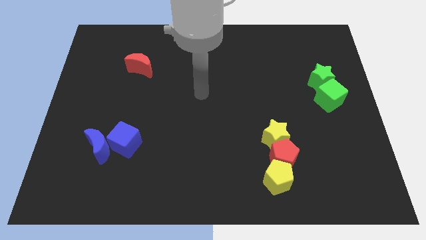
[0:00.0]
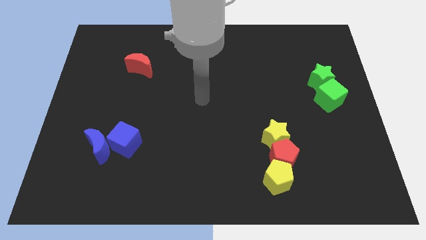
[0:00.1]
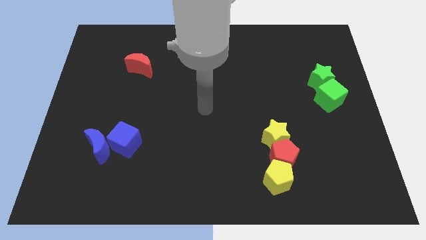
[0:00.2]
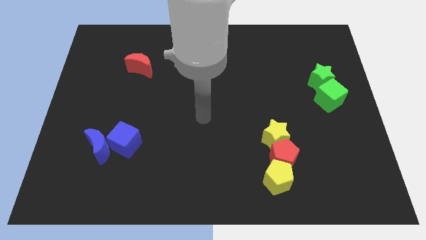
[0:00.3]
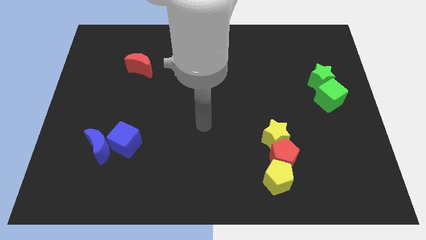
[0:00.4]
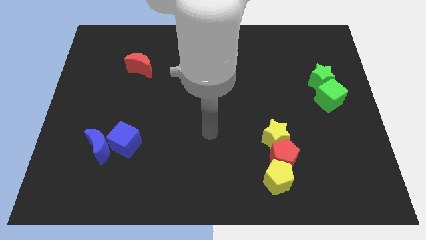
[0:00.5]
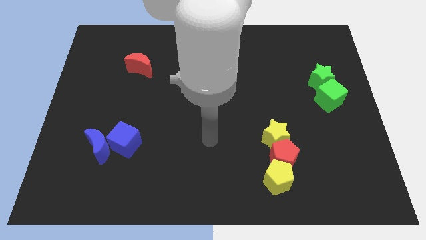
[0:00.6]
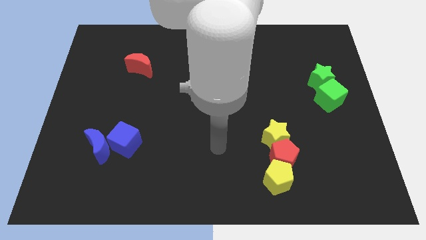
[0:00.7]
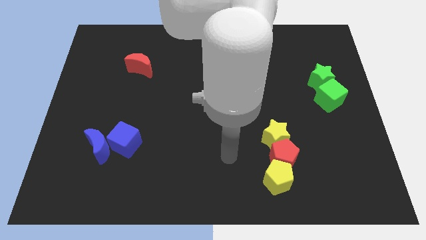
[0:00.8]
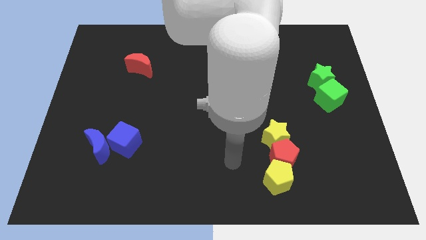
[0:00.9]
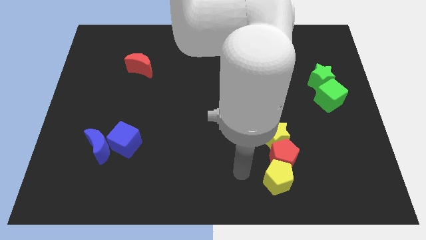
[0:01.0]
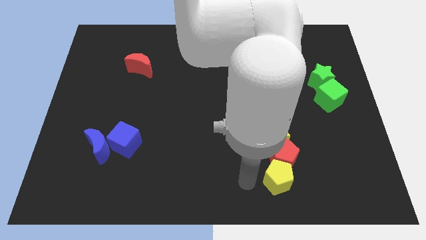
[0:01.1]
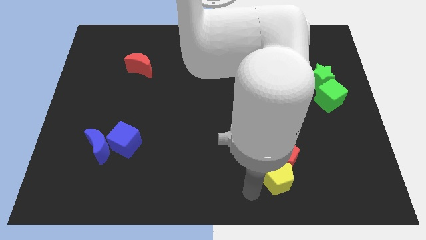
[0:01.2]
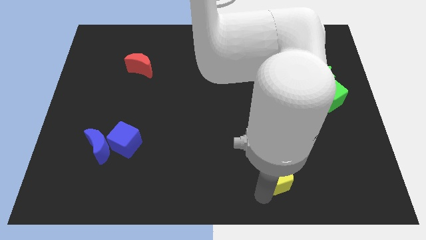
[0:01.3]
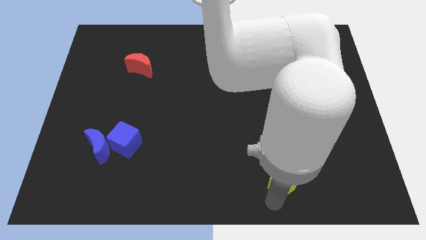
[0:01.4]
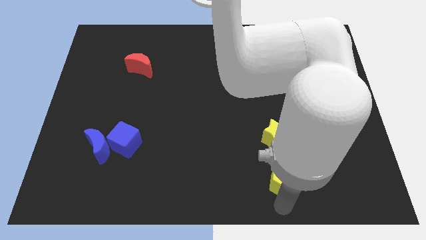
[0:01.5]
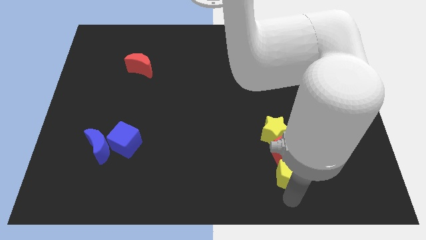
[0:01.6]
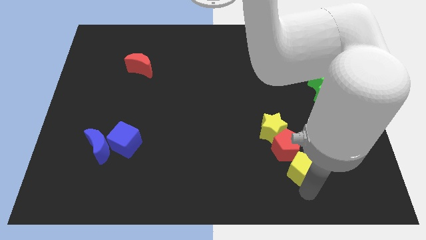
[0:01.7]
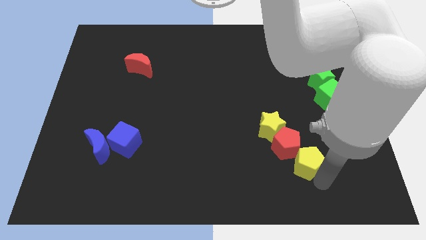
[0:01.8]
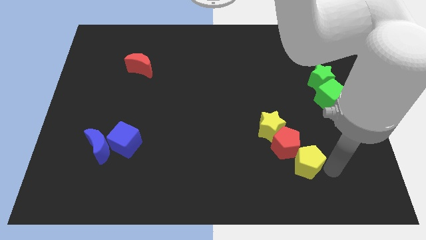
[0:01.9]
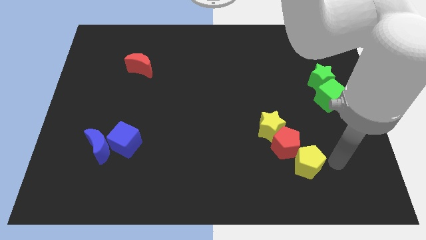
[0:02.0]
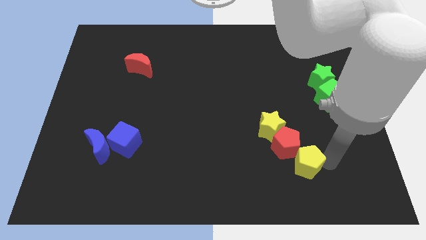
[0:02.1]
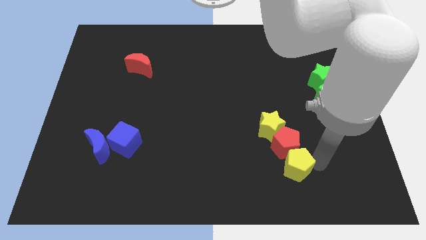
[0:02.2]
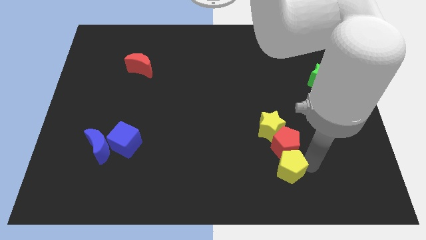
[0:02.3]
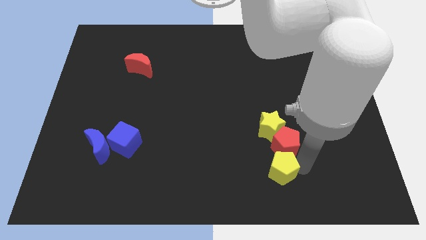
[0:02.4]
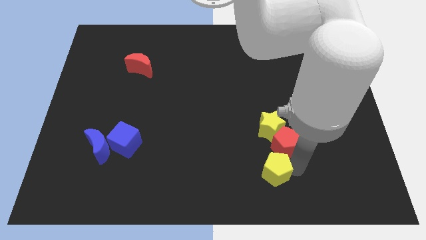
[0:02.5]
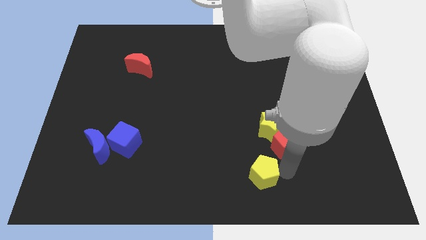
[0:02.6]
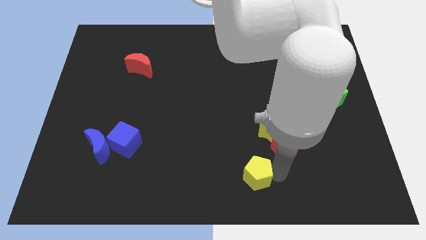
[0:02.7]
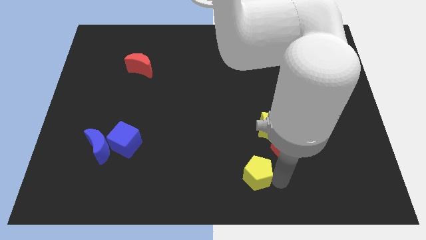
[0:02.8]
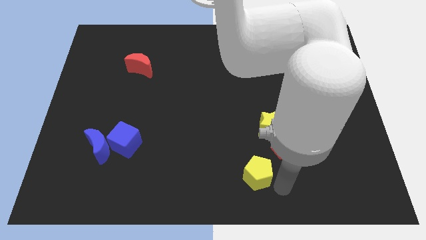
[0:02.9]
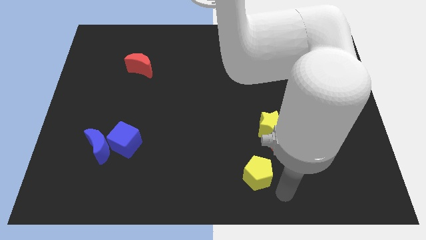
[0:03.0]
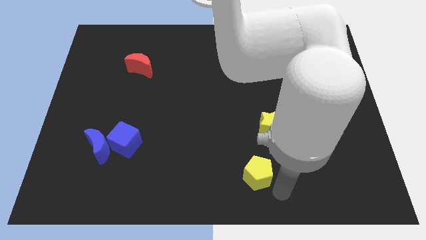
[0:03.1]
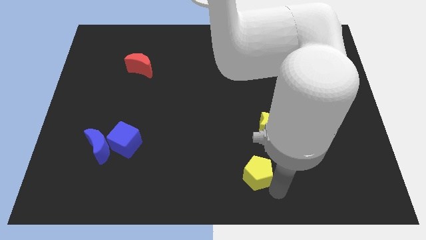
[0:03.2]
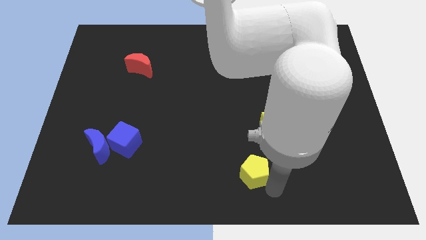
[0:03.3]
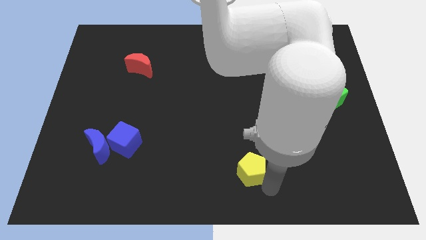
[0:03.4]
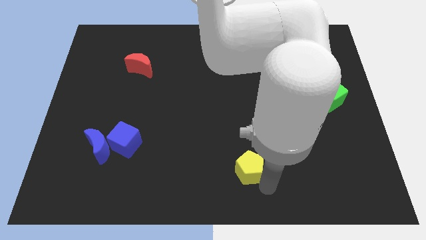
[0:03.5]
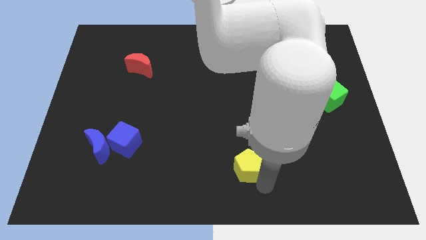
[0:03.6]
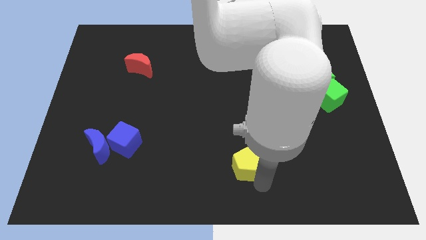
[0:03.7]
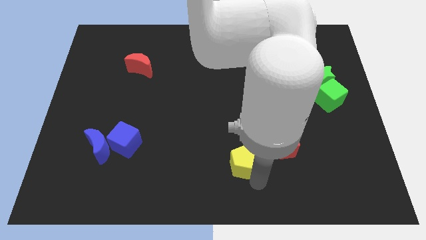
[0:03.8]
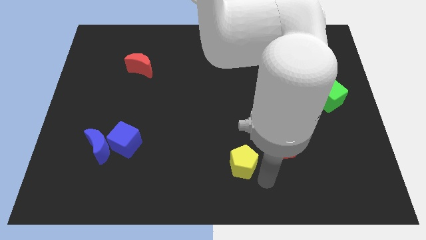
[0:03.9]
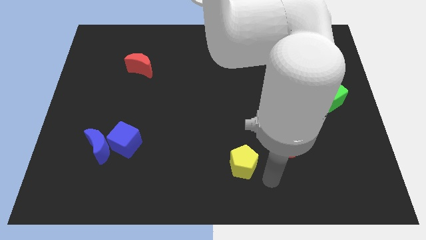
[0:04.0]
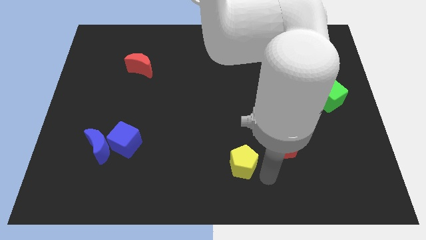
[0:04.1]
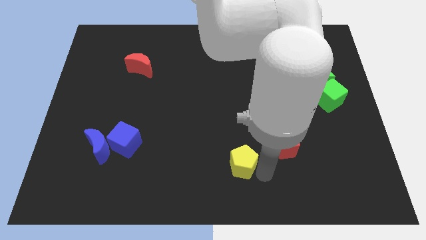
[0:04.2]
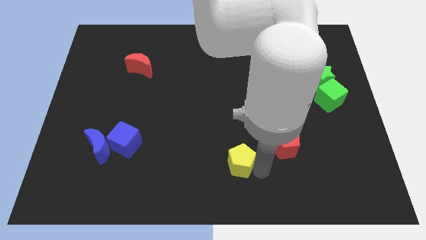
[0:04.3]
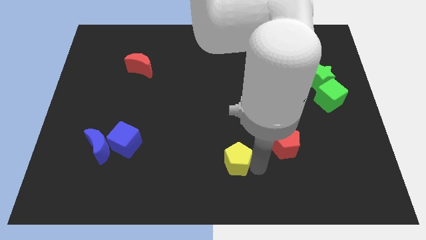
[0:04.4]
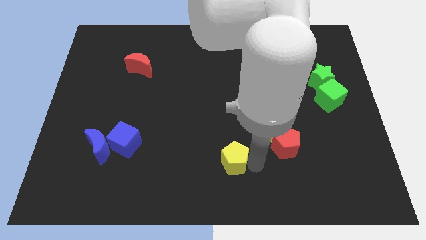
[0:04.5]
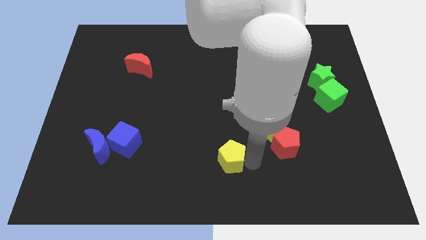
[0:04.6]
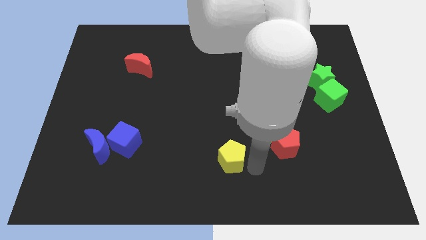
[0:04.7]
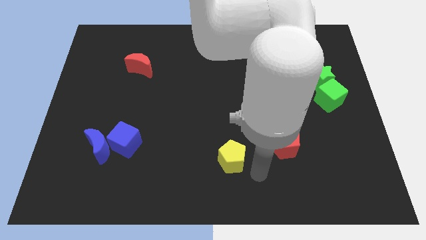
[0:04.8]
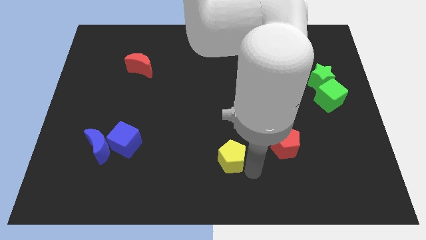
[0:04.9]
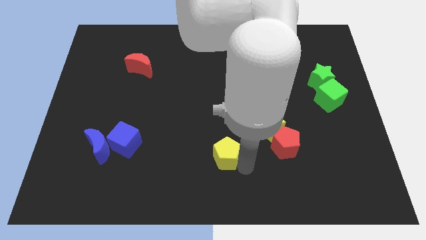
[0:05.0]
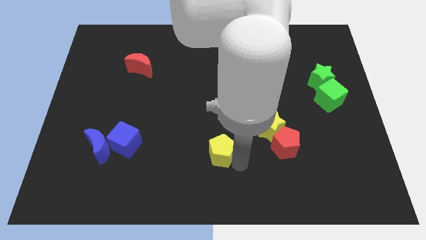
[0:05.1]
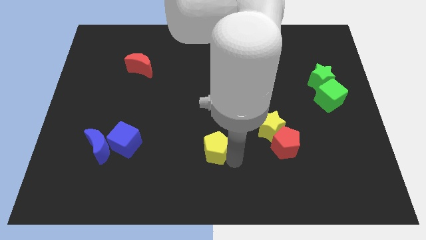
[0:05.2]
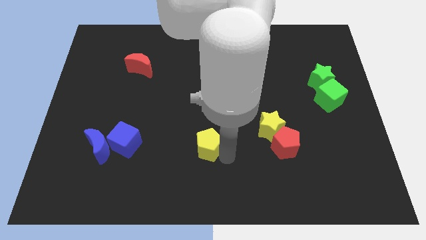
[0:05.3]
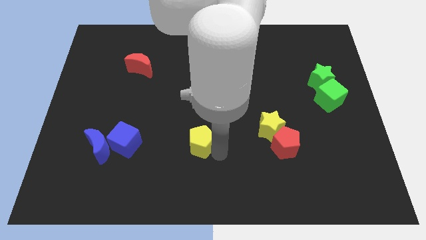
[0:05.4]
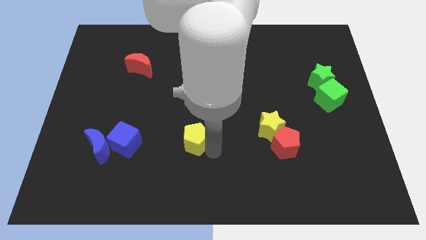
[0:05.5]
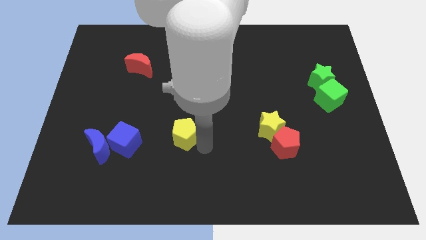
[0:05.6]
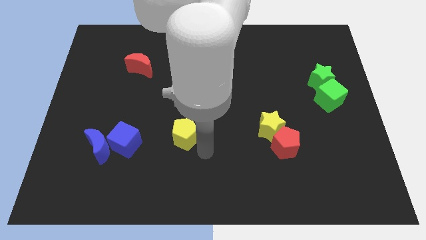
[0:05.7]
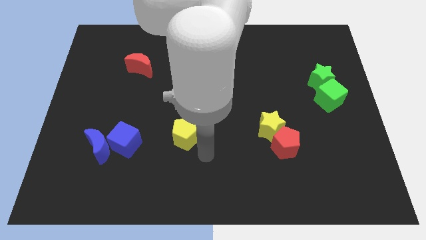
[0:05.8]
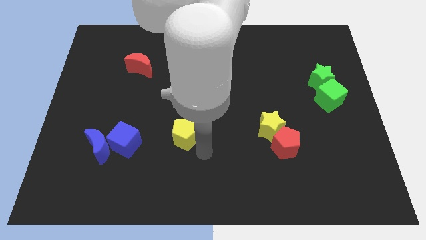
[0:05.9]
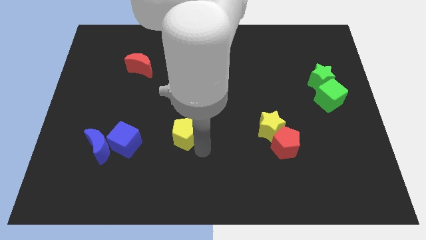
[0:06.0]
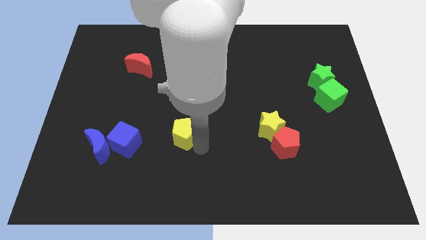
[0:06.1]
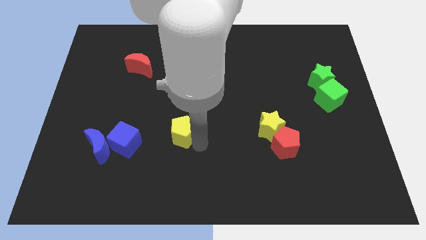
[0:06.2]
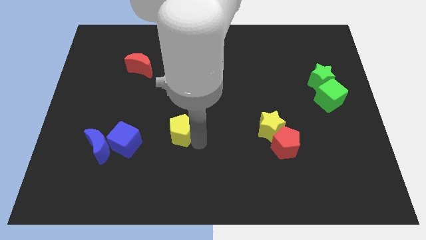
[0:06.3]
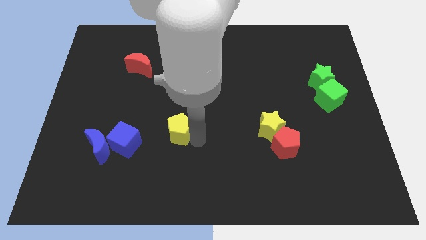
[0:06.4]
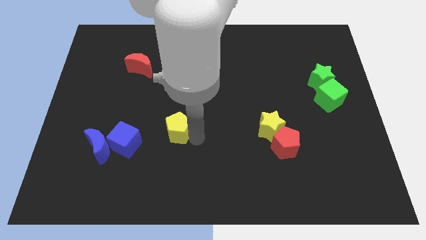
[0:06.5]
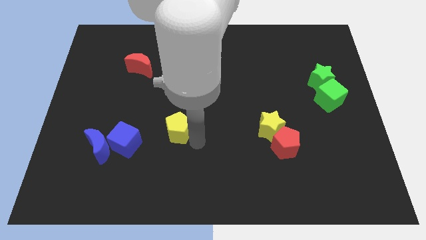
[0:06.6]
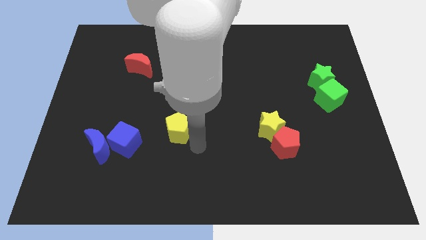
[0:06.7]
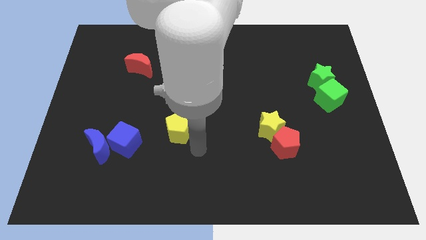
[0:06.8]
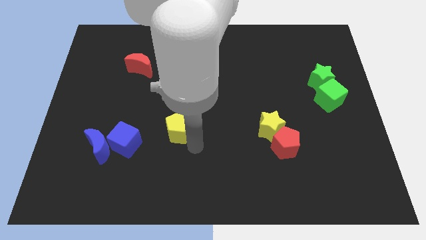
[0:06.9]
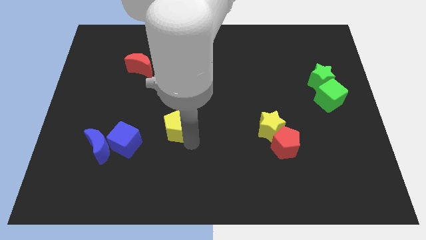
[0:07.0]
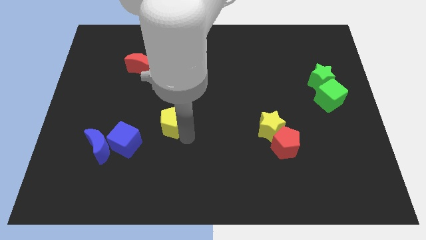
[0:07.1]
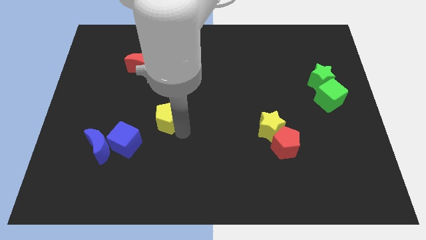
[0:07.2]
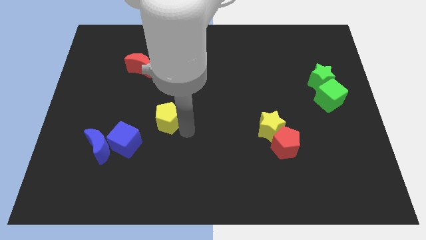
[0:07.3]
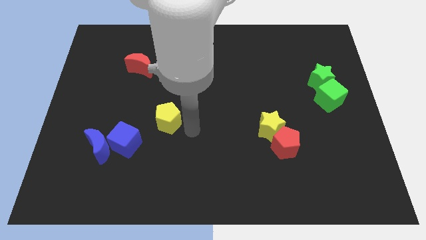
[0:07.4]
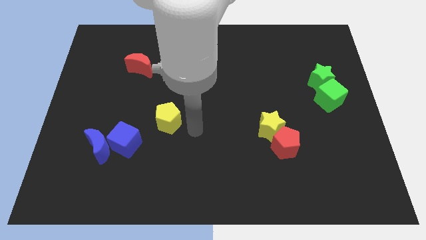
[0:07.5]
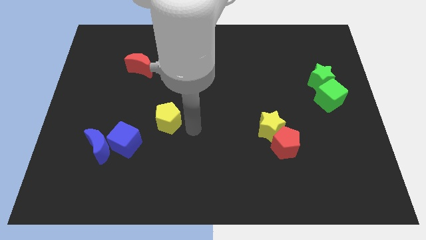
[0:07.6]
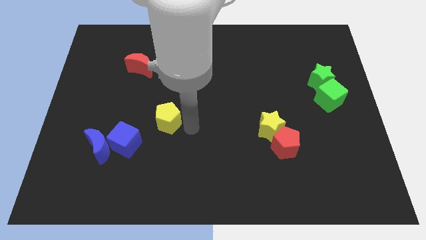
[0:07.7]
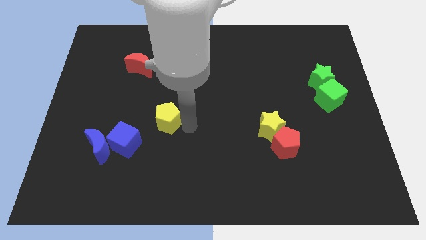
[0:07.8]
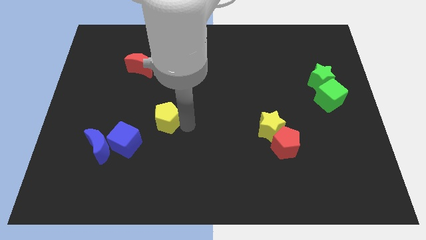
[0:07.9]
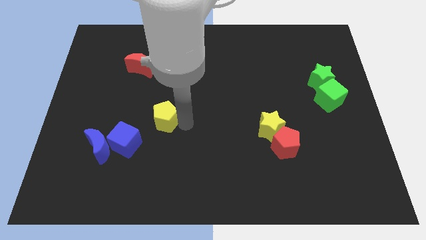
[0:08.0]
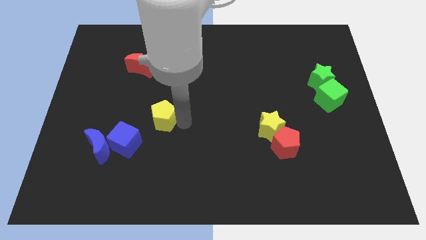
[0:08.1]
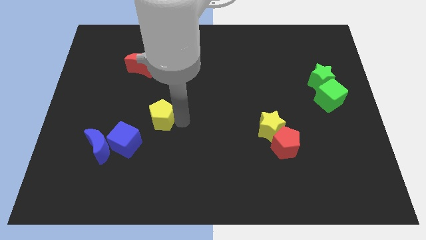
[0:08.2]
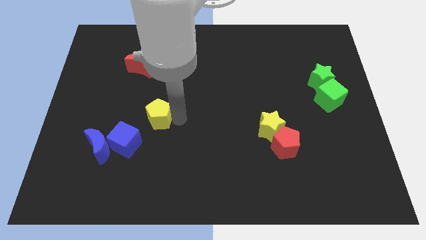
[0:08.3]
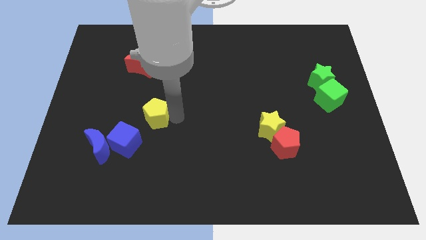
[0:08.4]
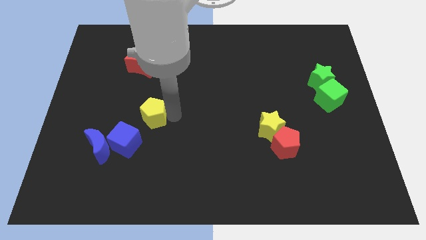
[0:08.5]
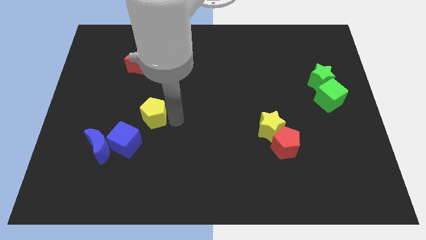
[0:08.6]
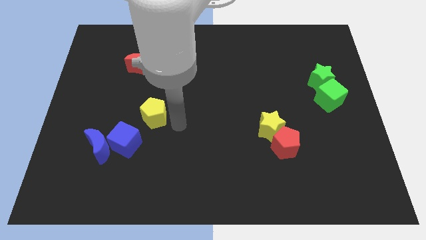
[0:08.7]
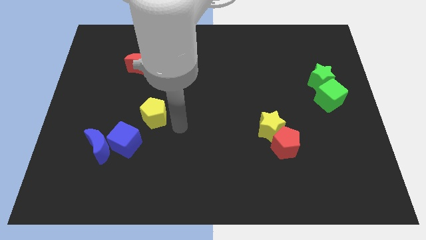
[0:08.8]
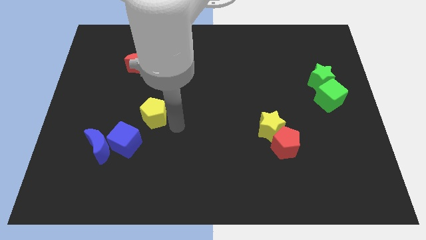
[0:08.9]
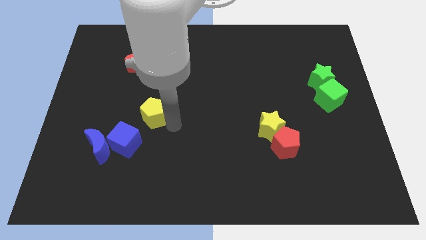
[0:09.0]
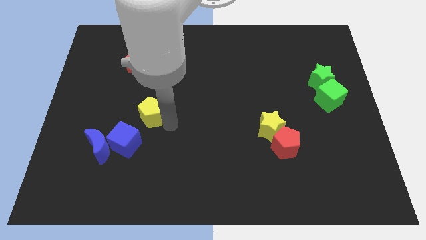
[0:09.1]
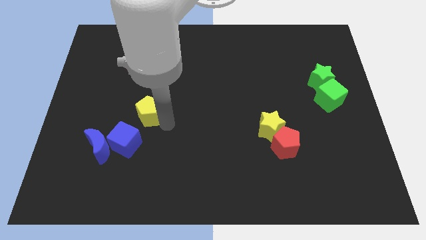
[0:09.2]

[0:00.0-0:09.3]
push the yellow pentagon to the top side of the blue cube
